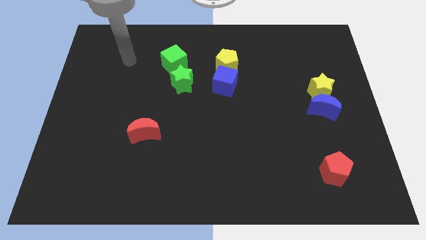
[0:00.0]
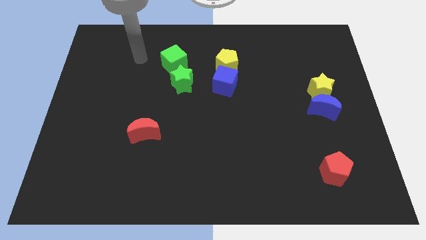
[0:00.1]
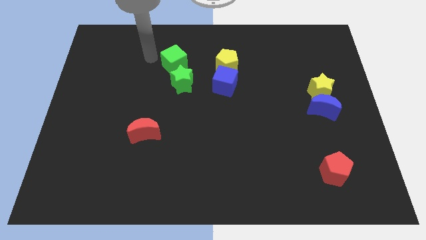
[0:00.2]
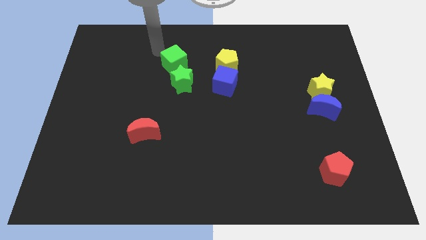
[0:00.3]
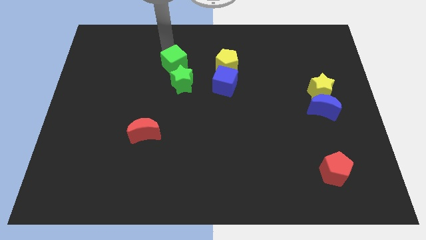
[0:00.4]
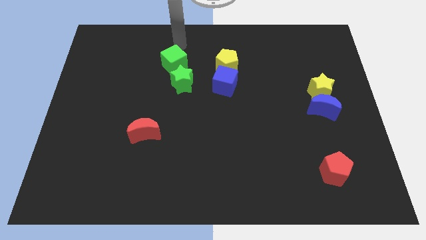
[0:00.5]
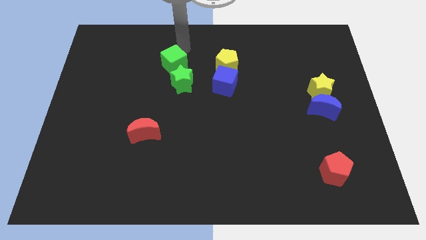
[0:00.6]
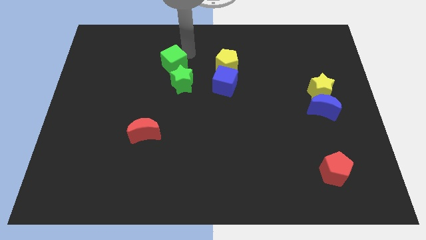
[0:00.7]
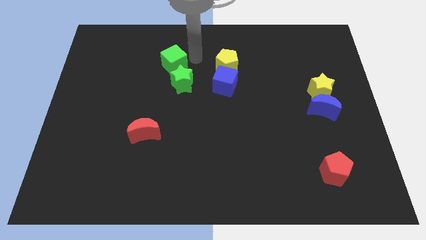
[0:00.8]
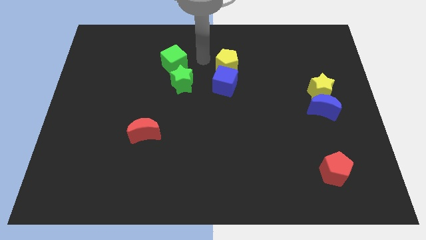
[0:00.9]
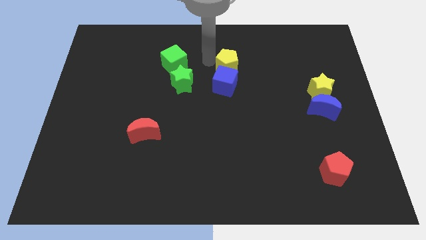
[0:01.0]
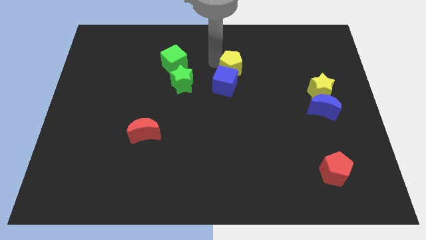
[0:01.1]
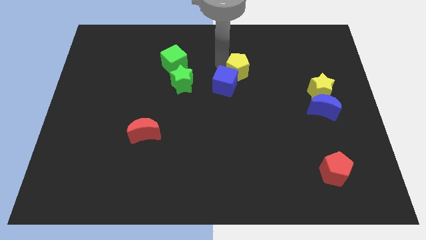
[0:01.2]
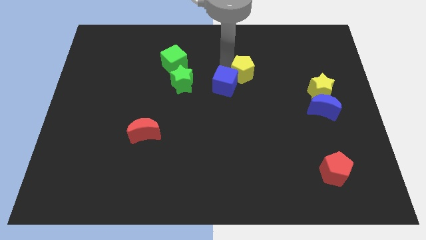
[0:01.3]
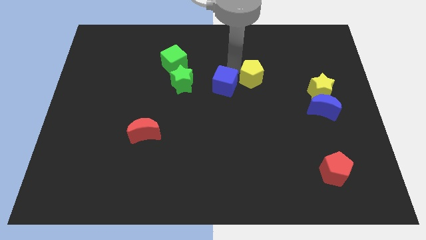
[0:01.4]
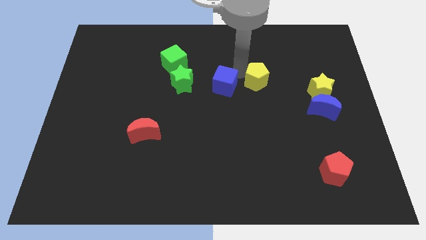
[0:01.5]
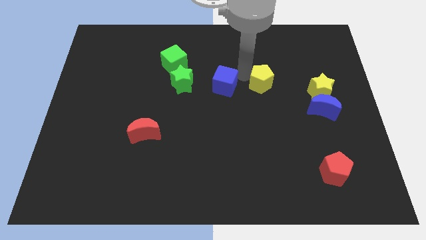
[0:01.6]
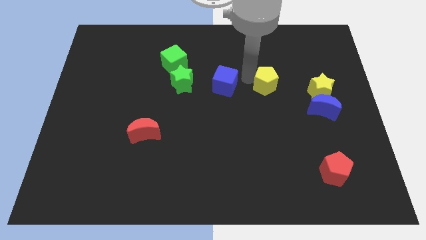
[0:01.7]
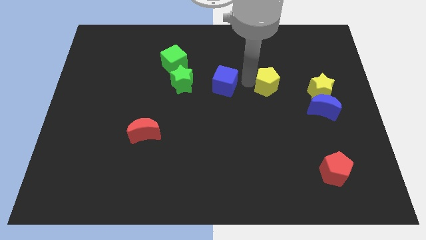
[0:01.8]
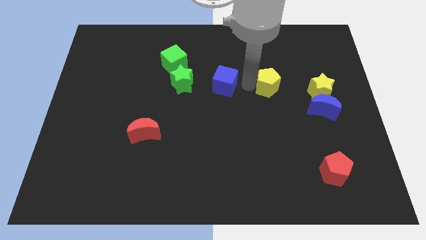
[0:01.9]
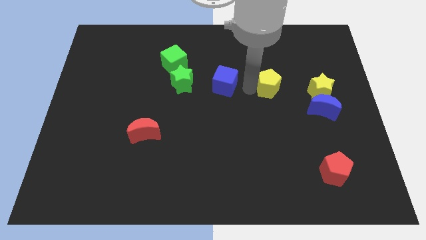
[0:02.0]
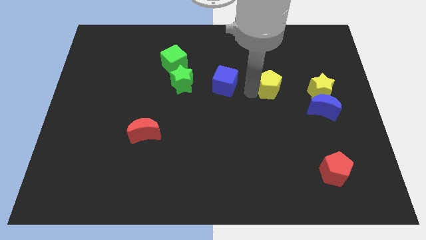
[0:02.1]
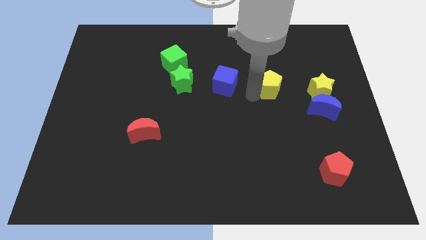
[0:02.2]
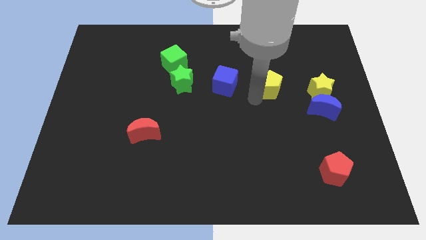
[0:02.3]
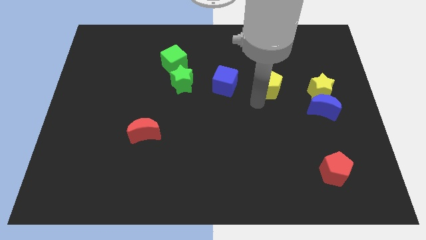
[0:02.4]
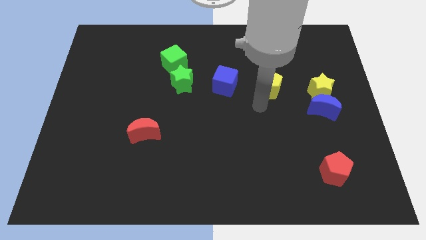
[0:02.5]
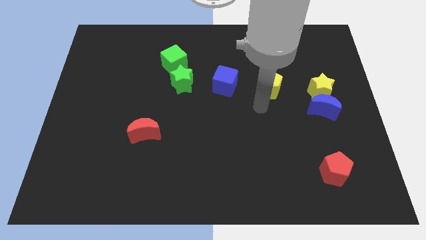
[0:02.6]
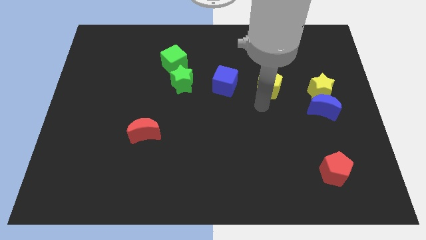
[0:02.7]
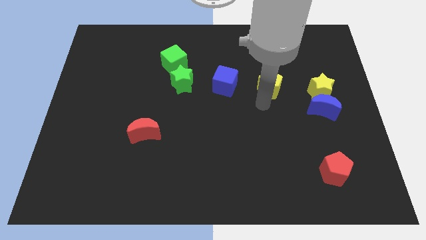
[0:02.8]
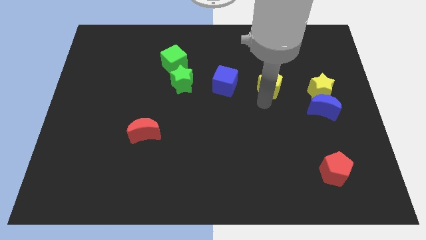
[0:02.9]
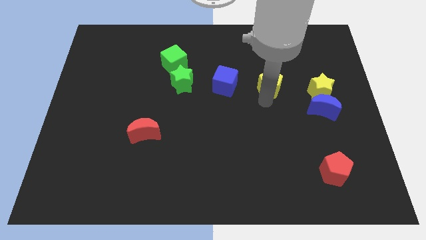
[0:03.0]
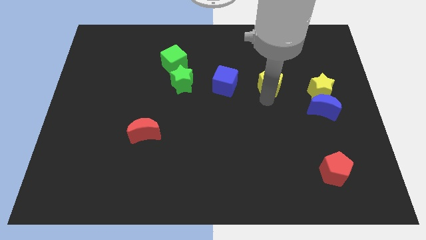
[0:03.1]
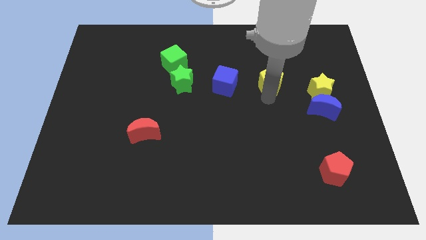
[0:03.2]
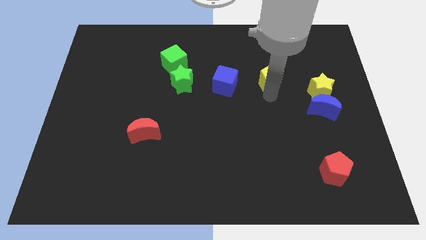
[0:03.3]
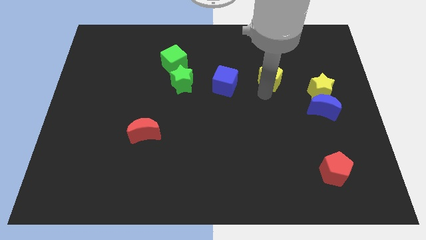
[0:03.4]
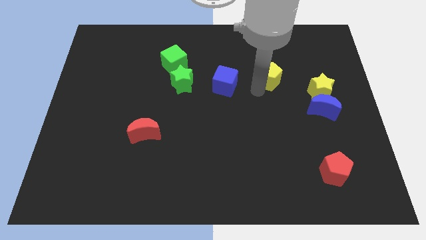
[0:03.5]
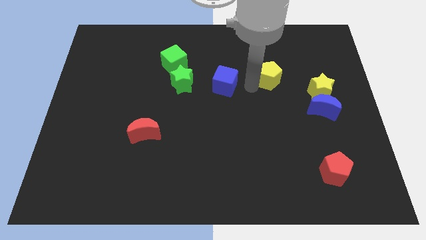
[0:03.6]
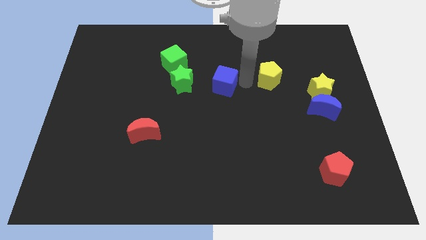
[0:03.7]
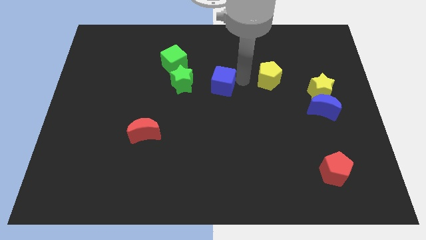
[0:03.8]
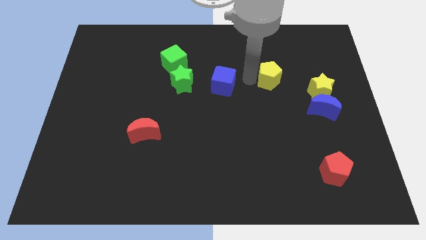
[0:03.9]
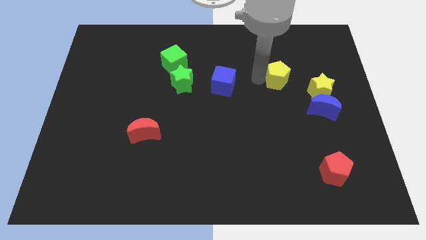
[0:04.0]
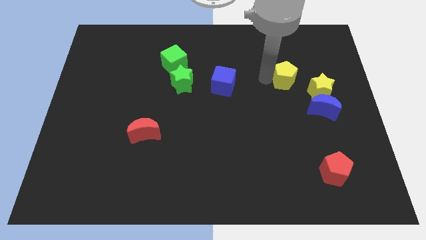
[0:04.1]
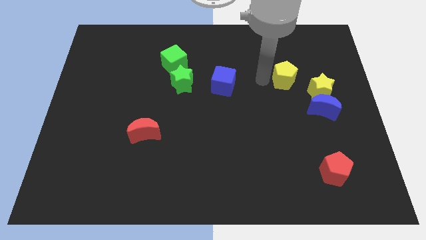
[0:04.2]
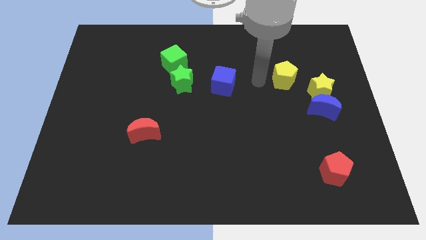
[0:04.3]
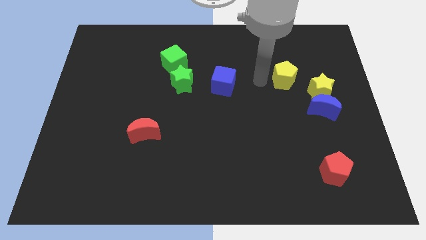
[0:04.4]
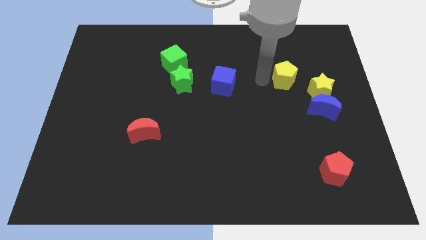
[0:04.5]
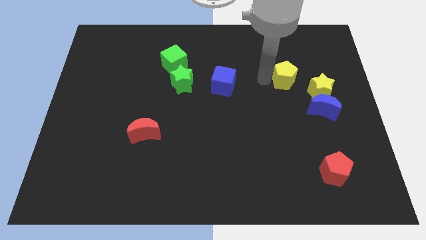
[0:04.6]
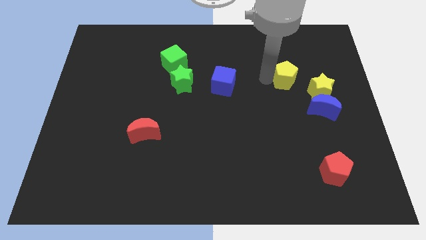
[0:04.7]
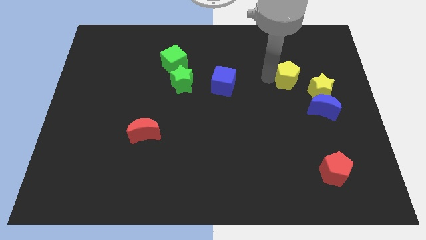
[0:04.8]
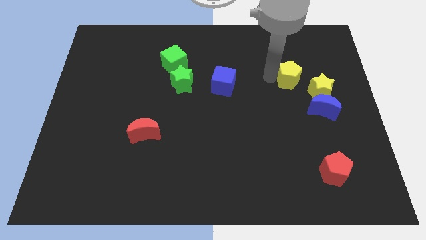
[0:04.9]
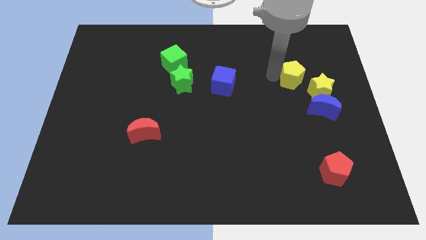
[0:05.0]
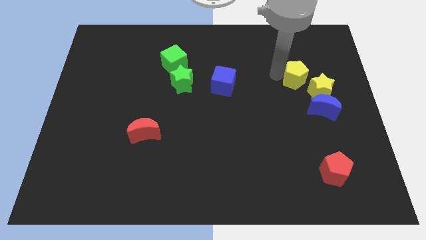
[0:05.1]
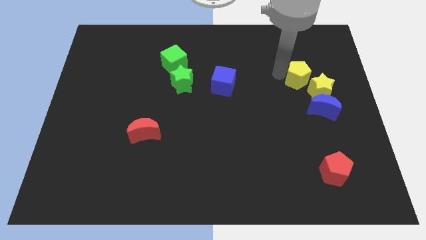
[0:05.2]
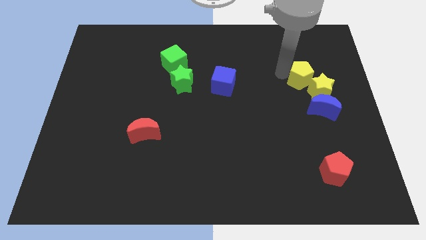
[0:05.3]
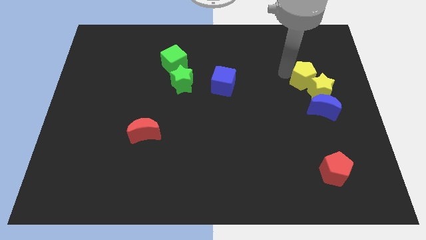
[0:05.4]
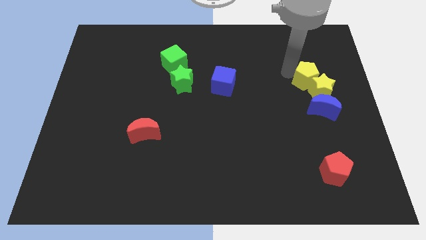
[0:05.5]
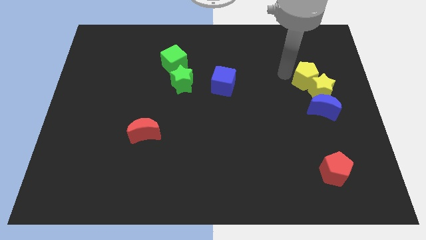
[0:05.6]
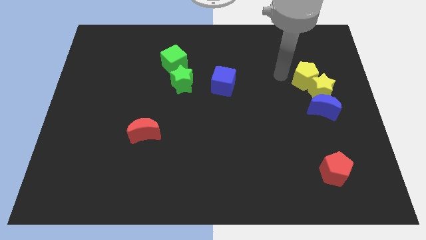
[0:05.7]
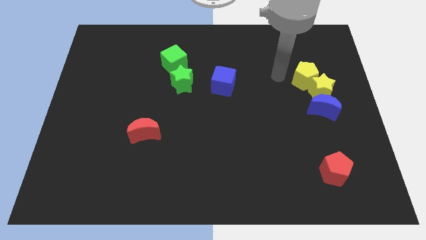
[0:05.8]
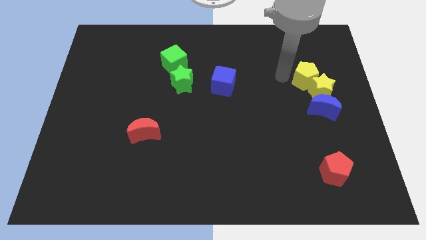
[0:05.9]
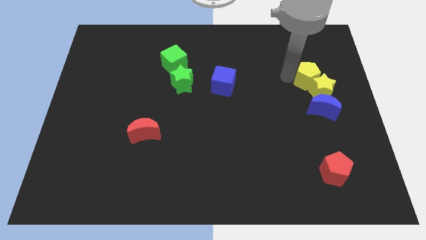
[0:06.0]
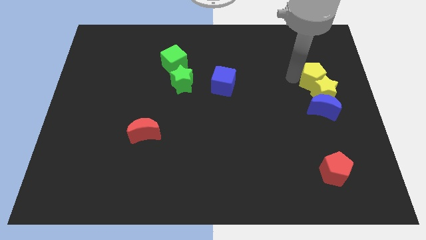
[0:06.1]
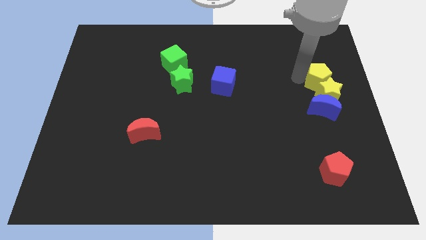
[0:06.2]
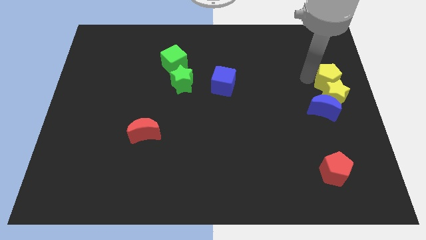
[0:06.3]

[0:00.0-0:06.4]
slide the yellow pentagon to the right side of the board
